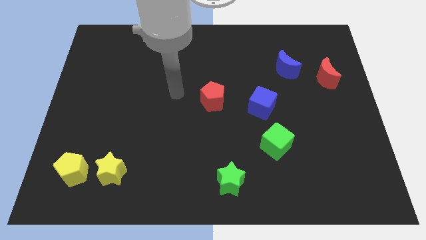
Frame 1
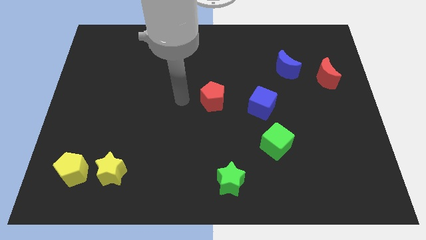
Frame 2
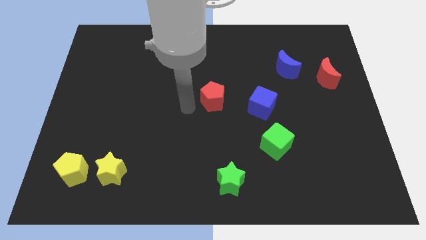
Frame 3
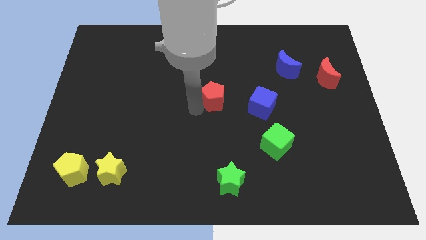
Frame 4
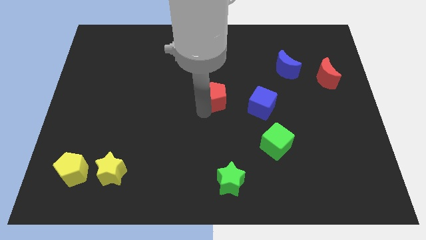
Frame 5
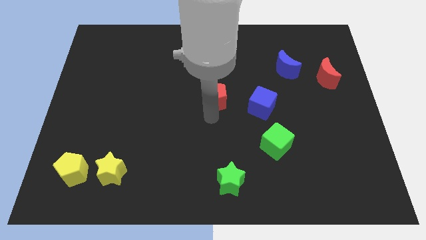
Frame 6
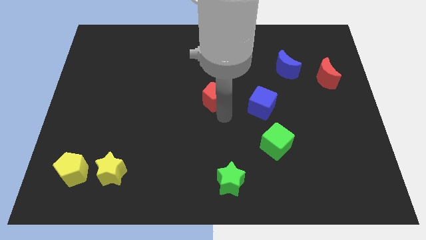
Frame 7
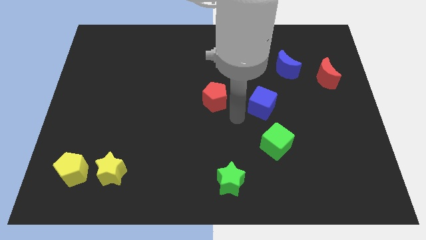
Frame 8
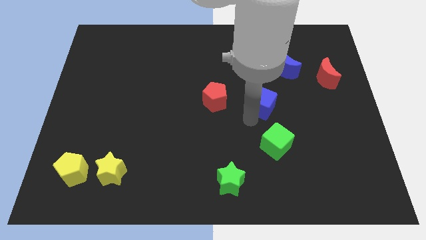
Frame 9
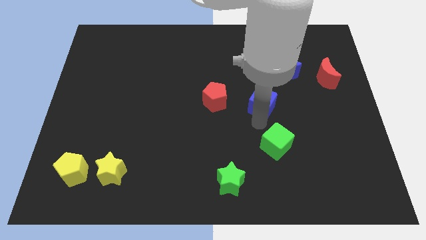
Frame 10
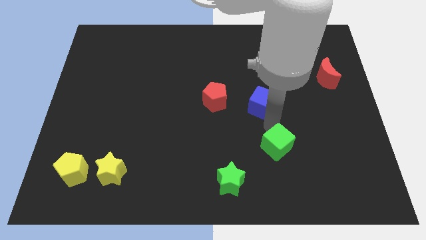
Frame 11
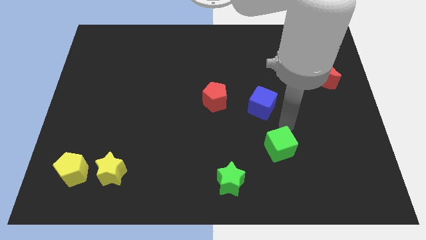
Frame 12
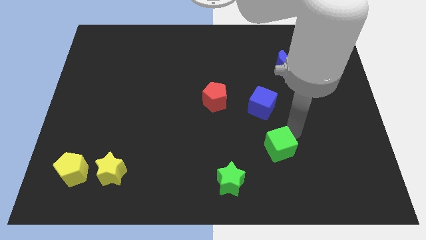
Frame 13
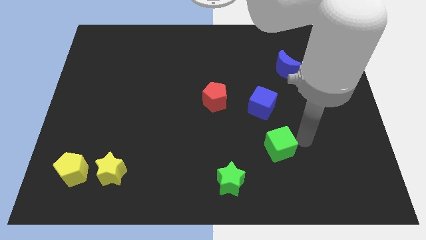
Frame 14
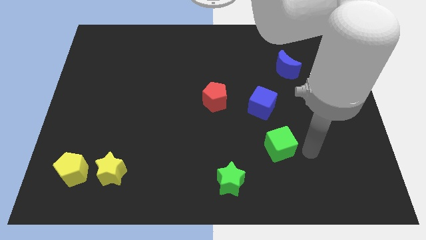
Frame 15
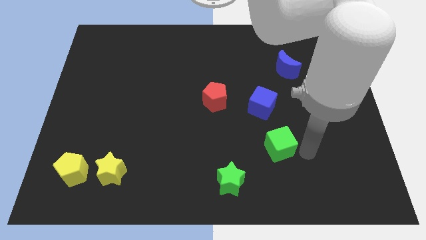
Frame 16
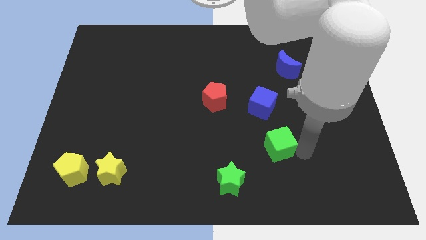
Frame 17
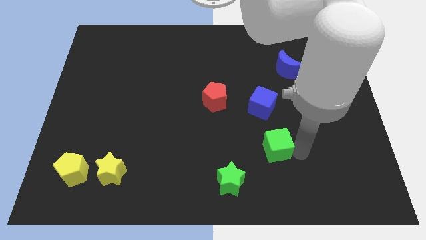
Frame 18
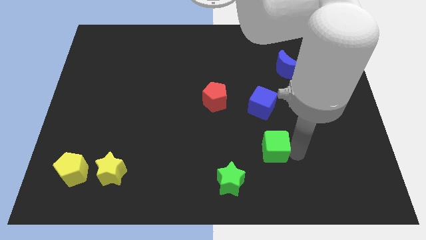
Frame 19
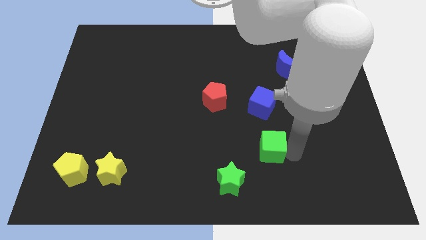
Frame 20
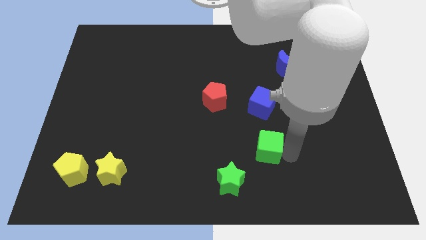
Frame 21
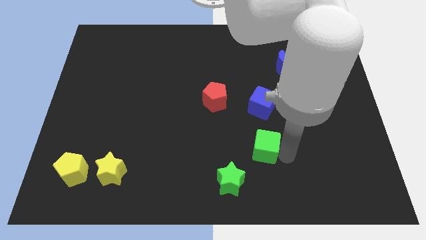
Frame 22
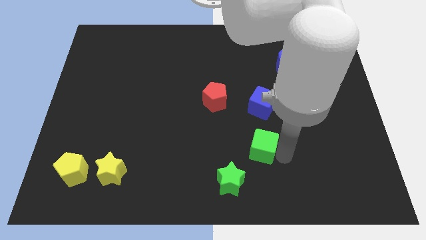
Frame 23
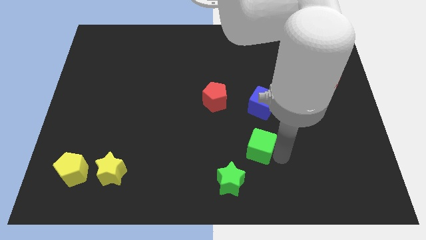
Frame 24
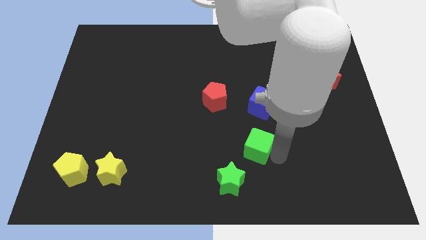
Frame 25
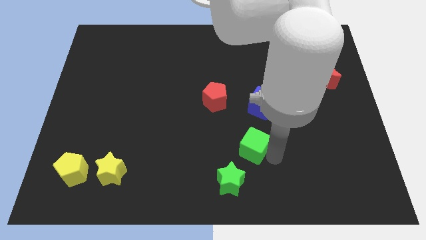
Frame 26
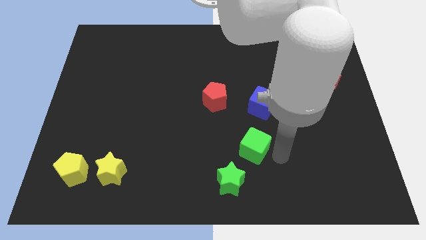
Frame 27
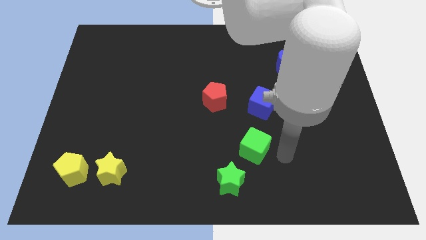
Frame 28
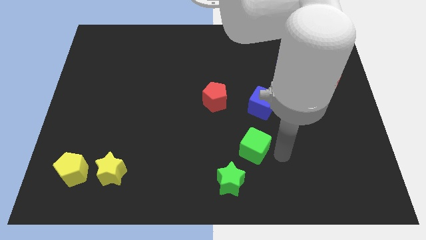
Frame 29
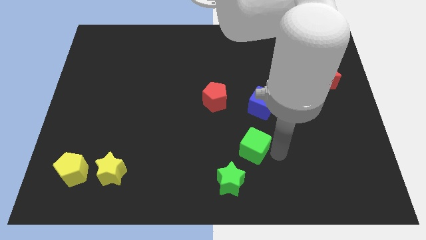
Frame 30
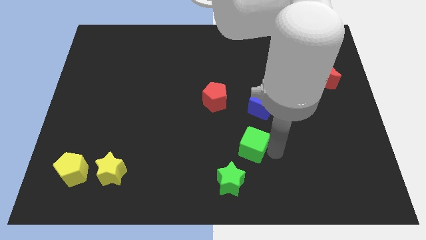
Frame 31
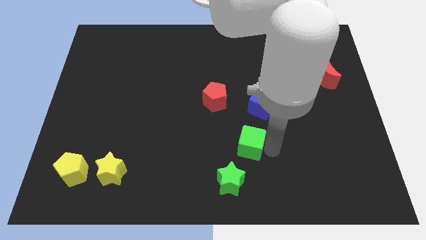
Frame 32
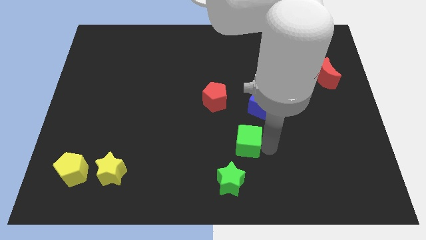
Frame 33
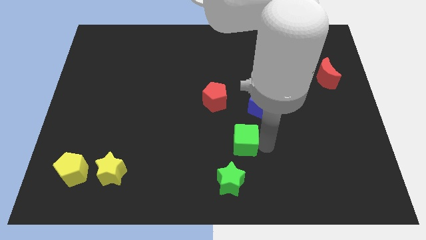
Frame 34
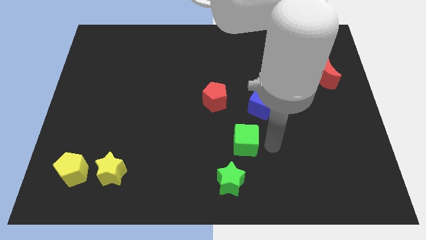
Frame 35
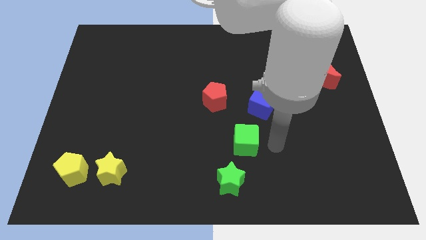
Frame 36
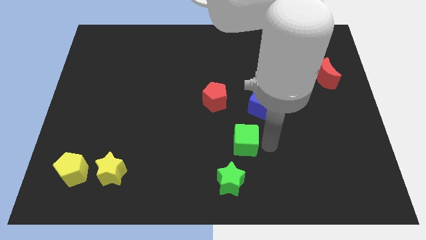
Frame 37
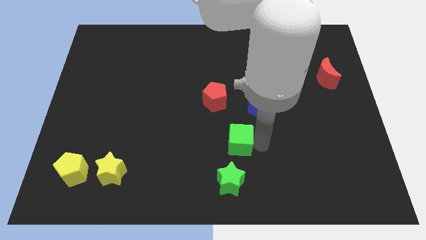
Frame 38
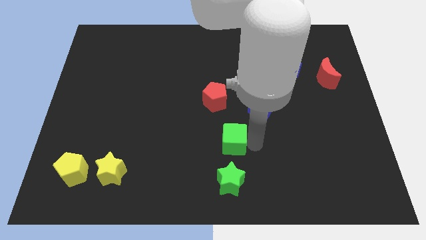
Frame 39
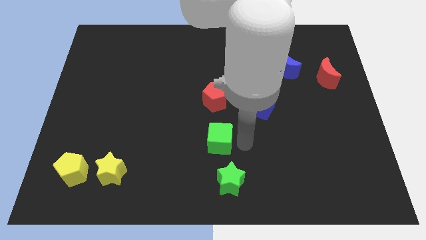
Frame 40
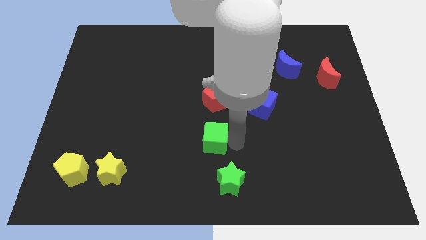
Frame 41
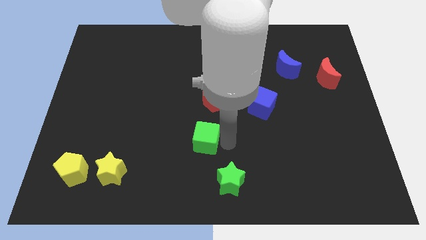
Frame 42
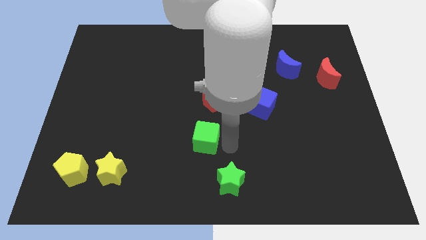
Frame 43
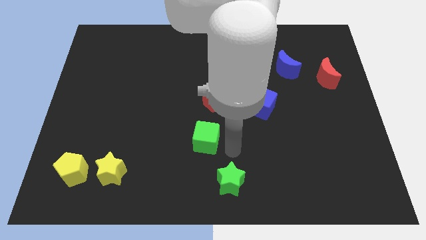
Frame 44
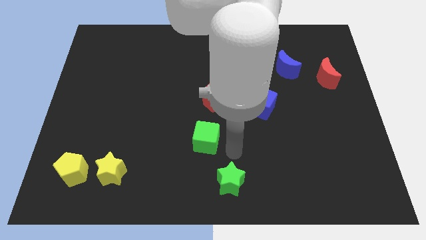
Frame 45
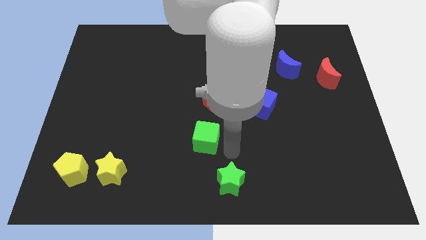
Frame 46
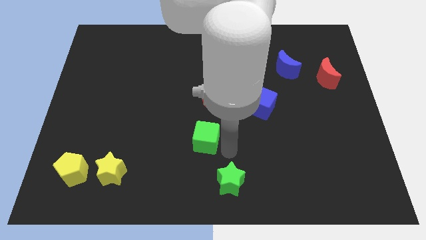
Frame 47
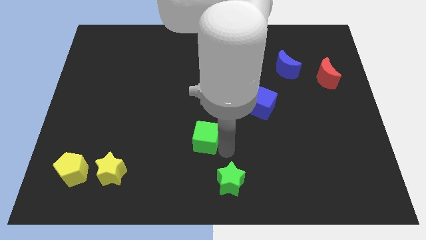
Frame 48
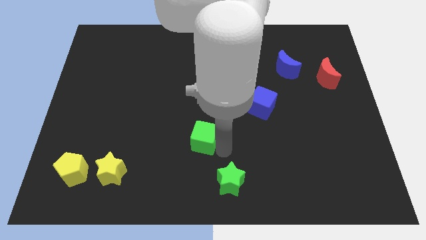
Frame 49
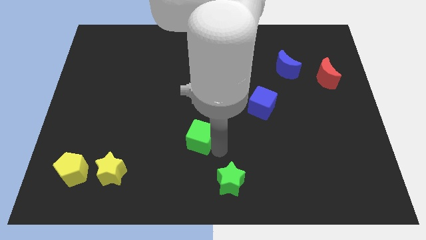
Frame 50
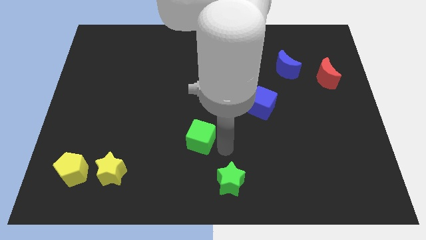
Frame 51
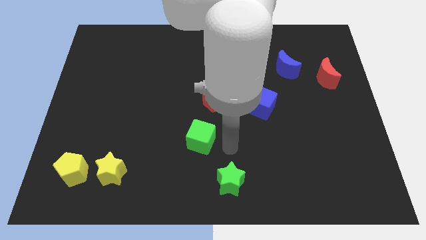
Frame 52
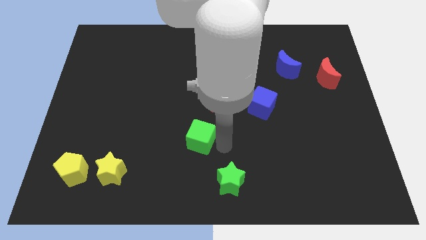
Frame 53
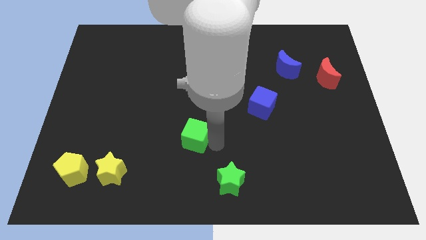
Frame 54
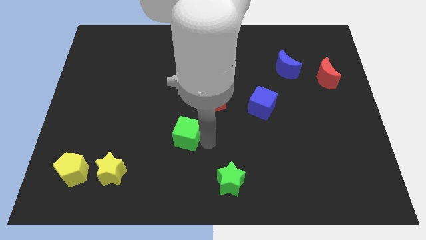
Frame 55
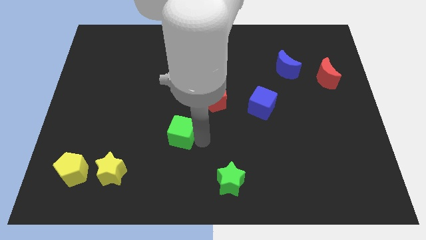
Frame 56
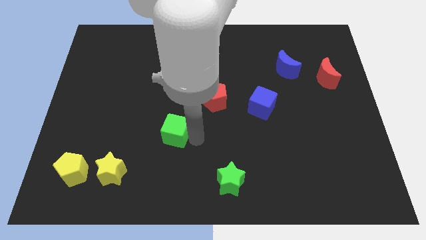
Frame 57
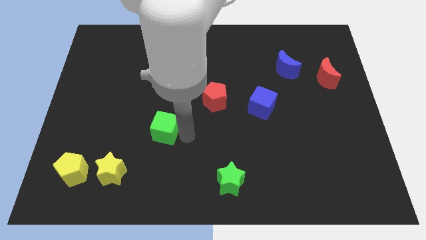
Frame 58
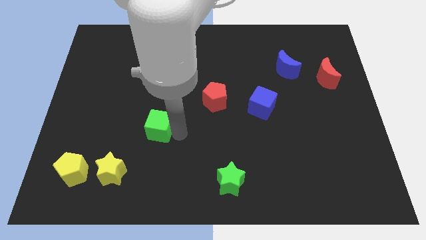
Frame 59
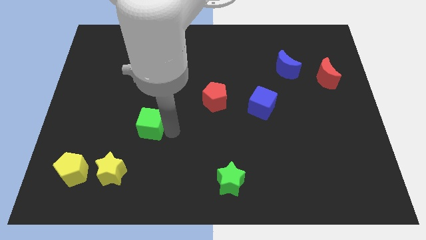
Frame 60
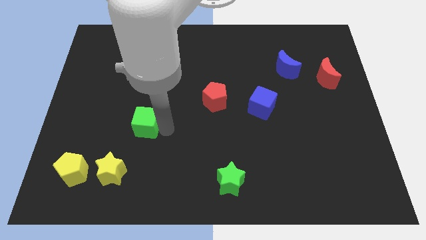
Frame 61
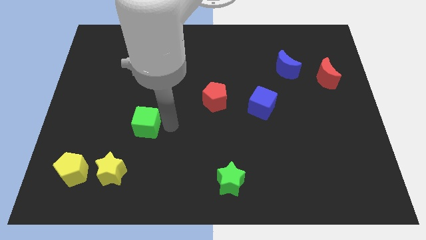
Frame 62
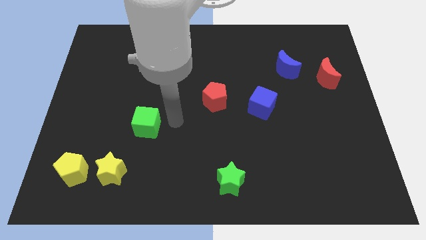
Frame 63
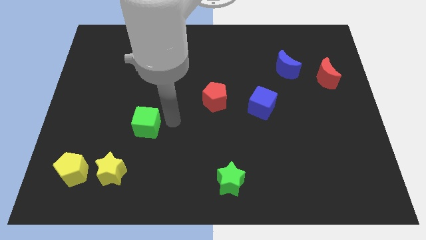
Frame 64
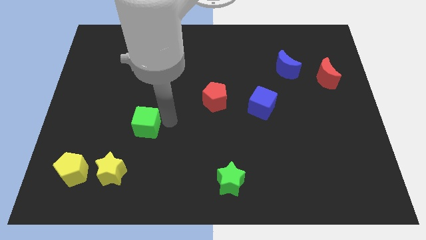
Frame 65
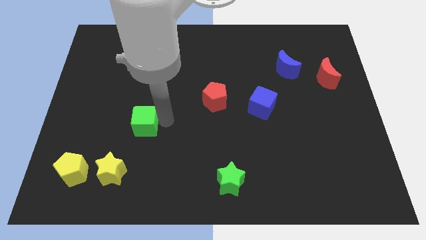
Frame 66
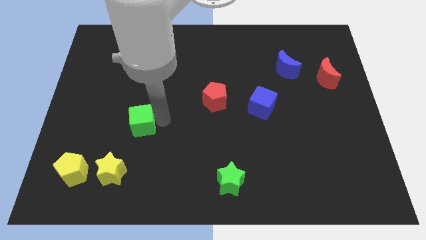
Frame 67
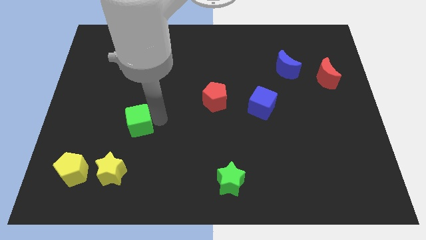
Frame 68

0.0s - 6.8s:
slide the green cube above the yellow star
